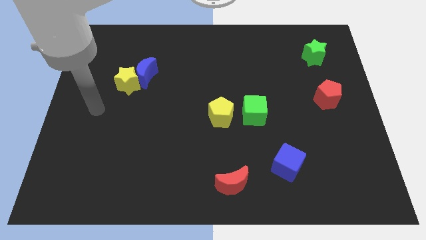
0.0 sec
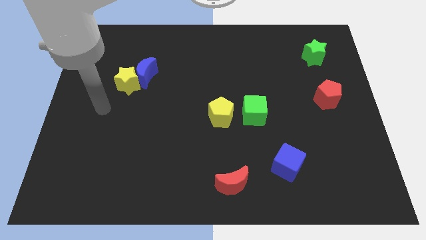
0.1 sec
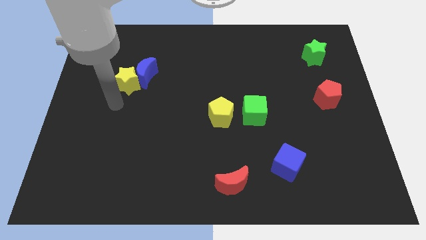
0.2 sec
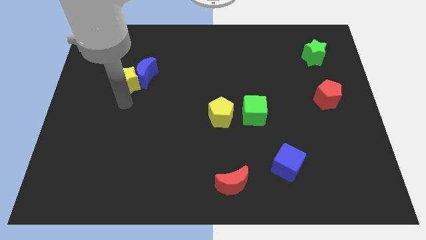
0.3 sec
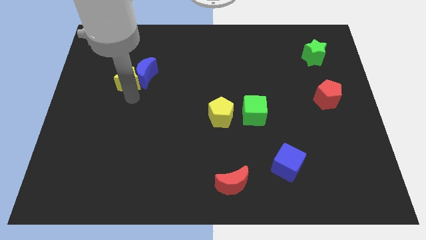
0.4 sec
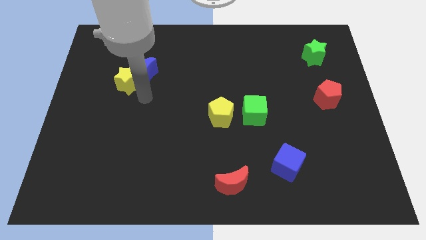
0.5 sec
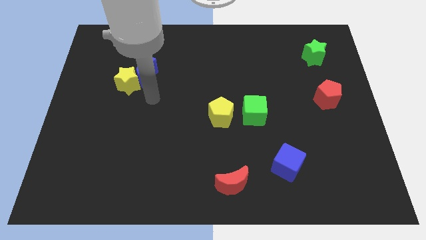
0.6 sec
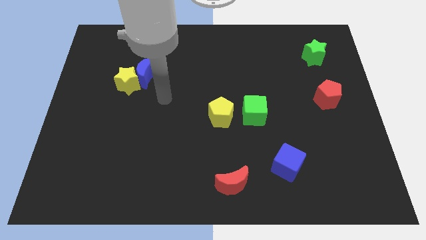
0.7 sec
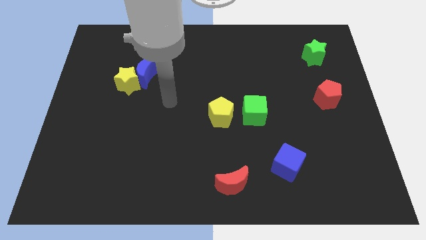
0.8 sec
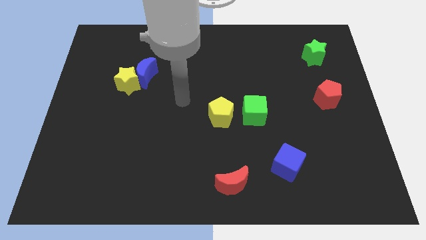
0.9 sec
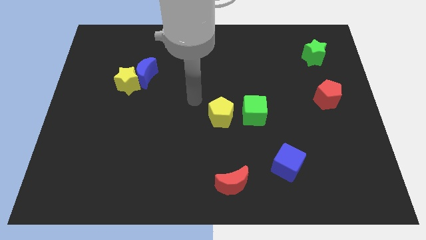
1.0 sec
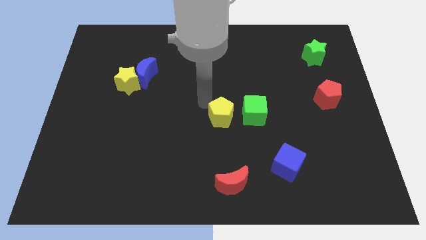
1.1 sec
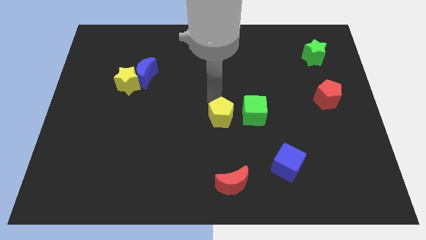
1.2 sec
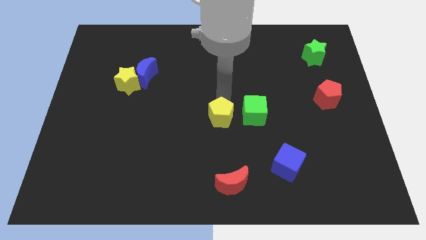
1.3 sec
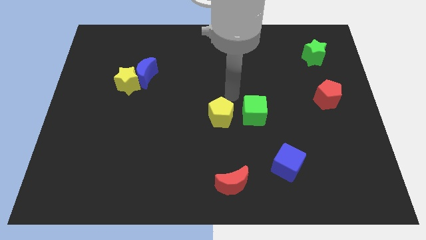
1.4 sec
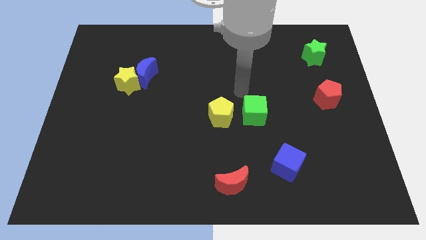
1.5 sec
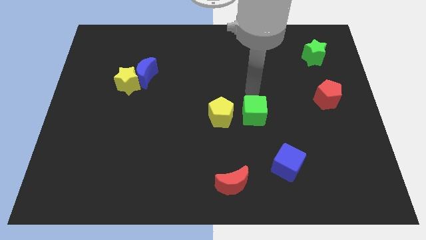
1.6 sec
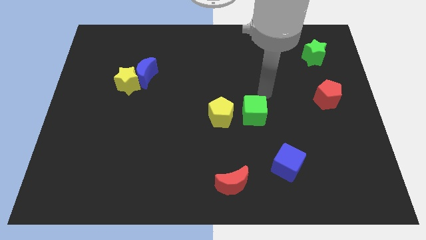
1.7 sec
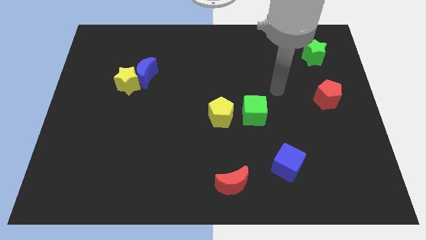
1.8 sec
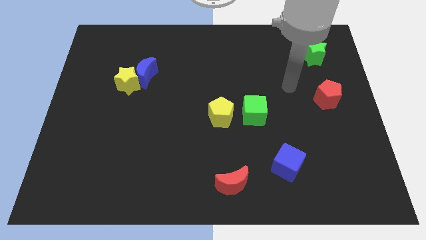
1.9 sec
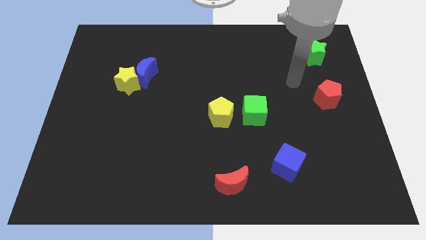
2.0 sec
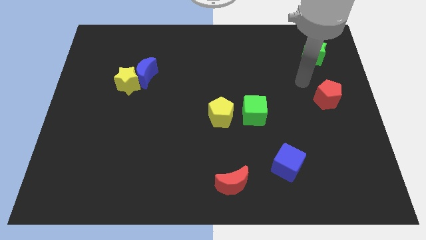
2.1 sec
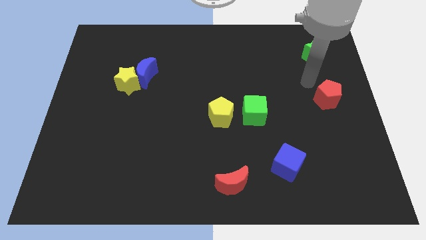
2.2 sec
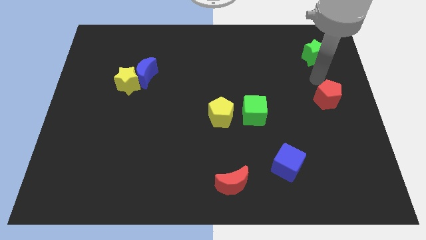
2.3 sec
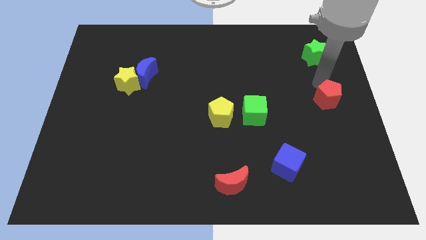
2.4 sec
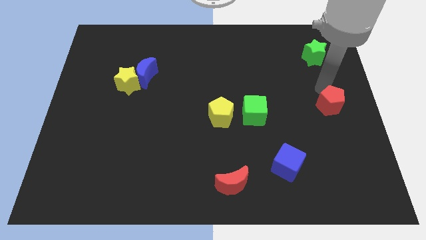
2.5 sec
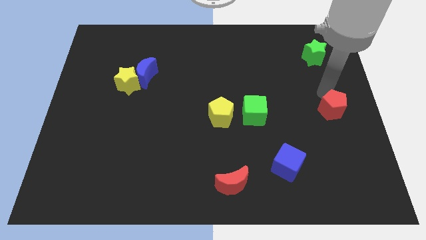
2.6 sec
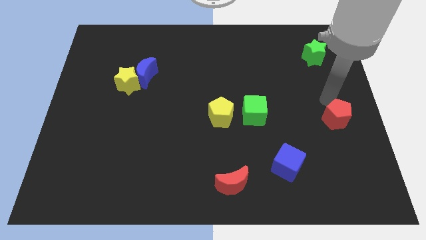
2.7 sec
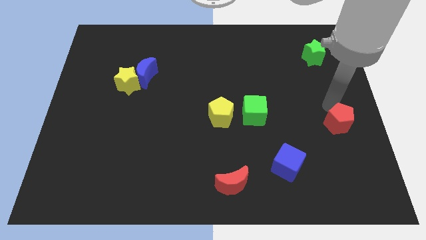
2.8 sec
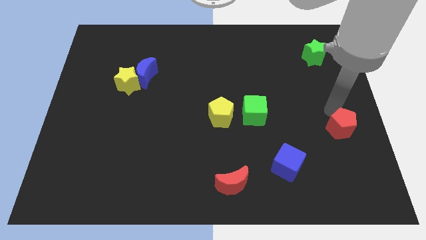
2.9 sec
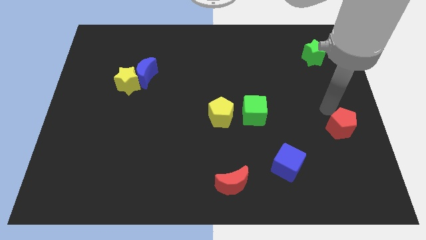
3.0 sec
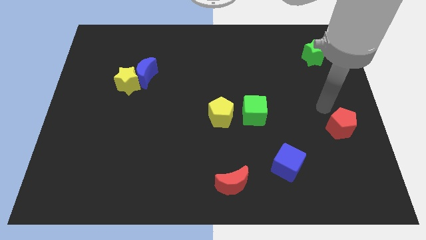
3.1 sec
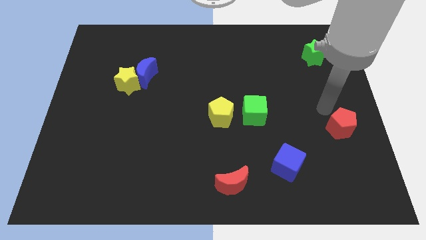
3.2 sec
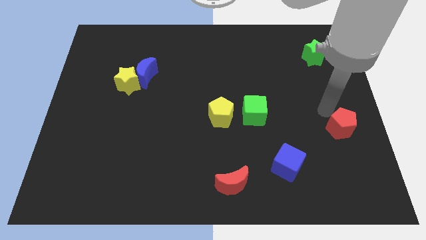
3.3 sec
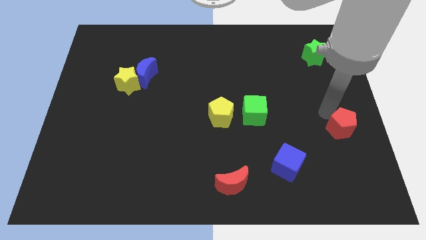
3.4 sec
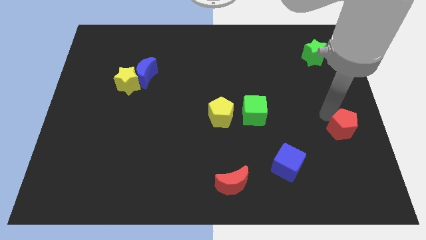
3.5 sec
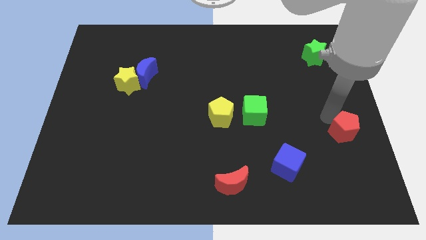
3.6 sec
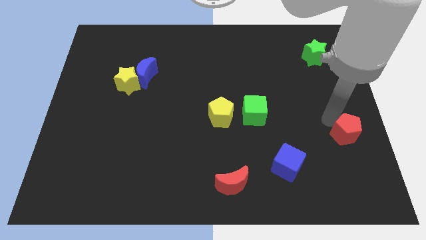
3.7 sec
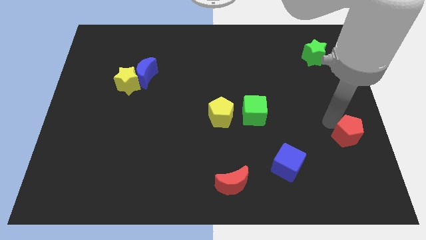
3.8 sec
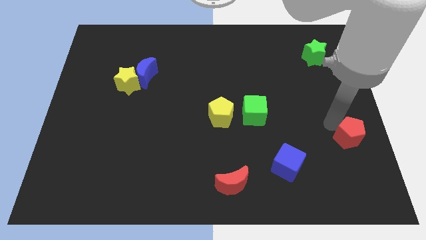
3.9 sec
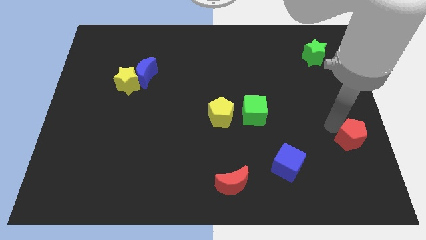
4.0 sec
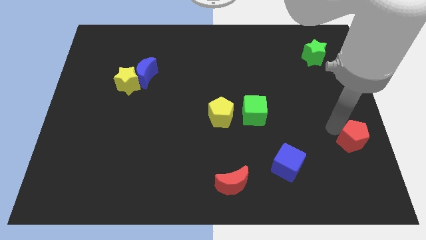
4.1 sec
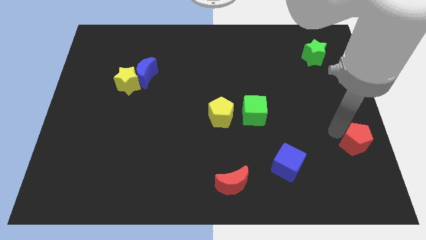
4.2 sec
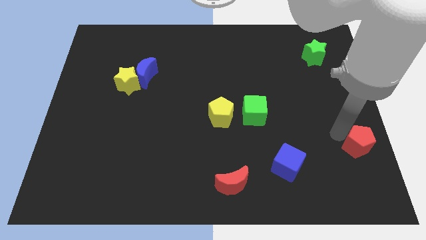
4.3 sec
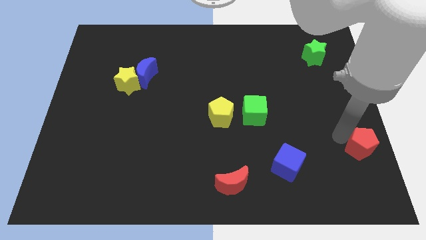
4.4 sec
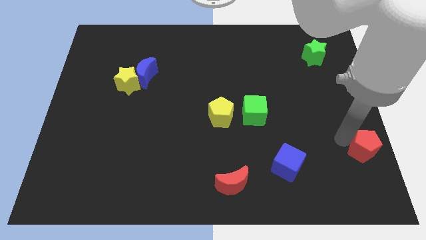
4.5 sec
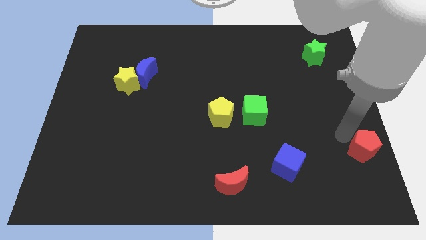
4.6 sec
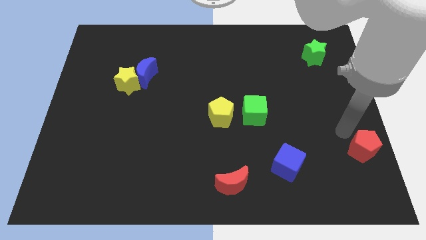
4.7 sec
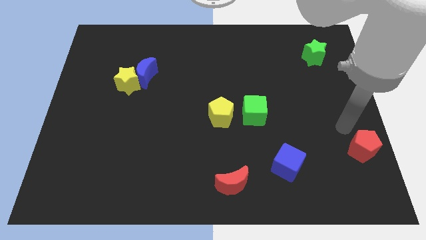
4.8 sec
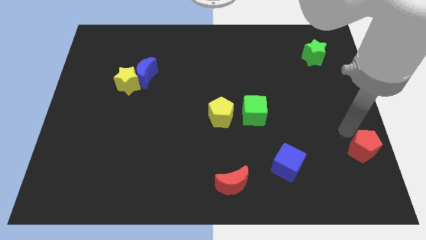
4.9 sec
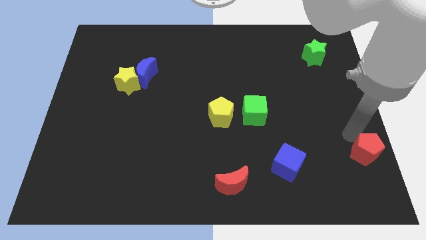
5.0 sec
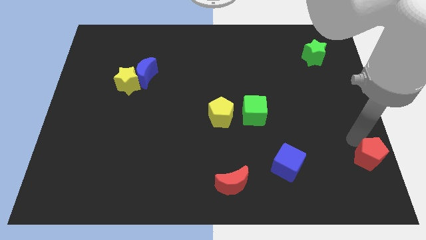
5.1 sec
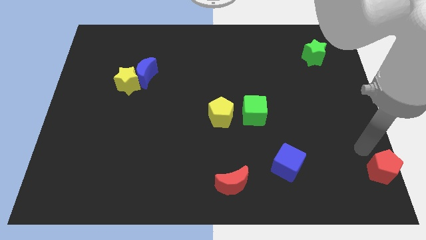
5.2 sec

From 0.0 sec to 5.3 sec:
put the red pentagon to the bottom right of the board

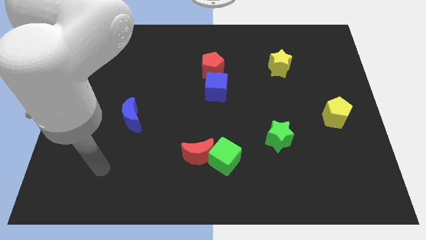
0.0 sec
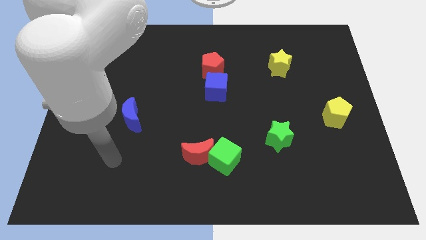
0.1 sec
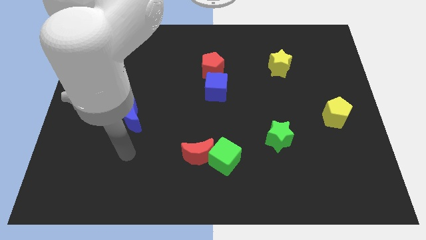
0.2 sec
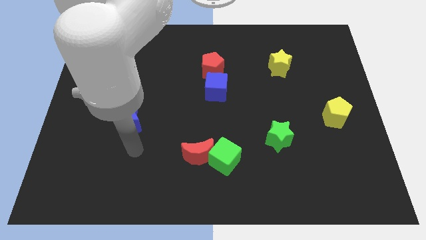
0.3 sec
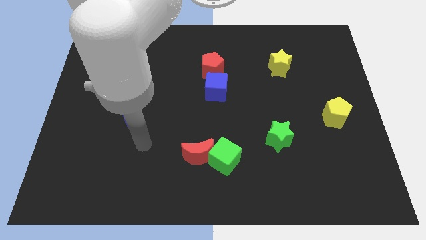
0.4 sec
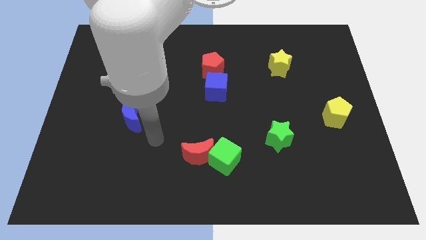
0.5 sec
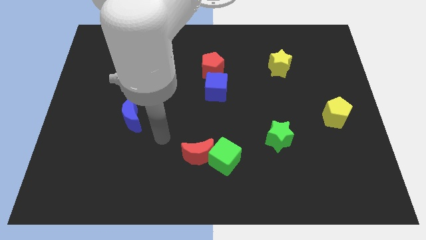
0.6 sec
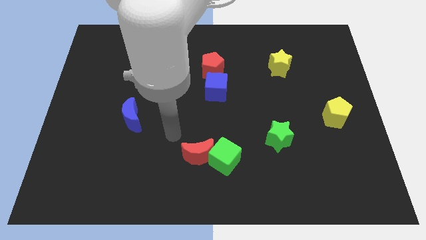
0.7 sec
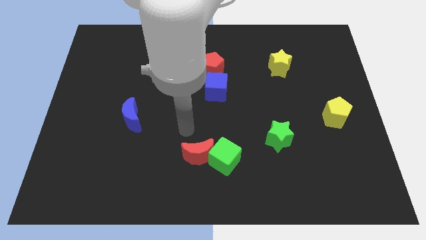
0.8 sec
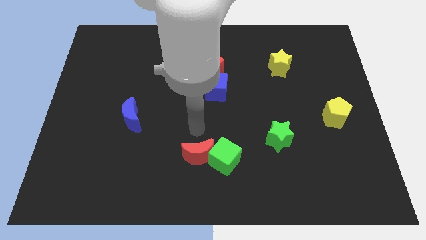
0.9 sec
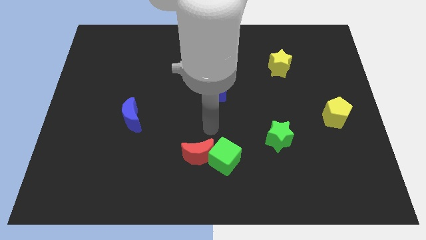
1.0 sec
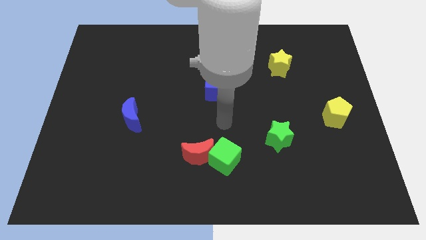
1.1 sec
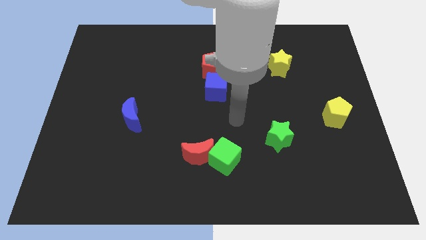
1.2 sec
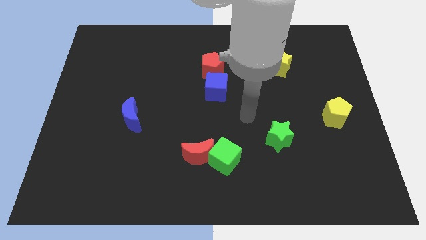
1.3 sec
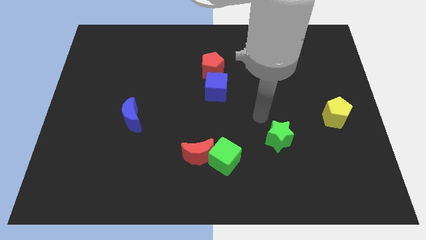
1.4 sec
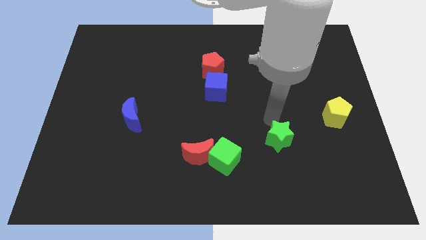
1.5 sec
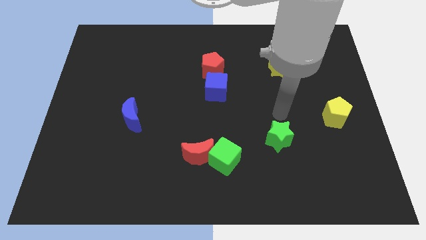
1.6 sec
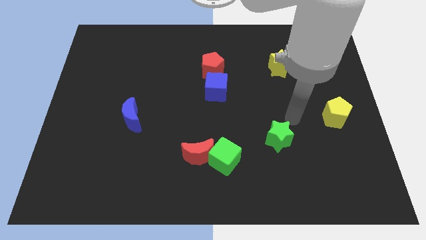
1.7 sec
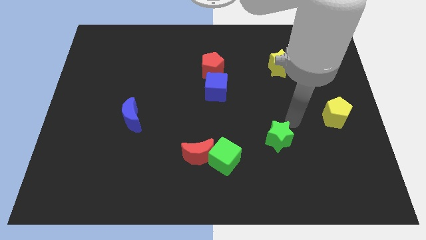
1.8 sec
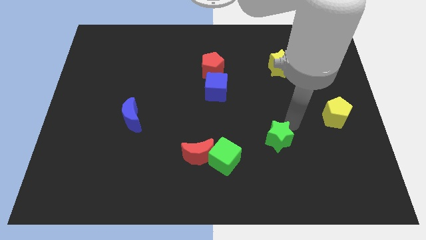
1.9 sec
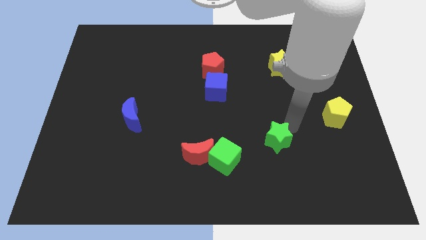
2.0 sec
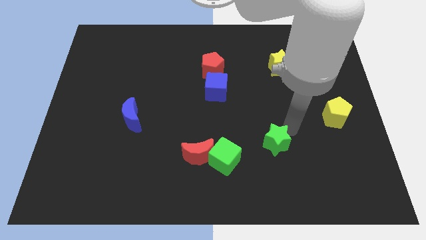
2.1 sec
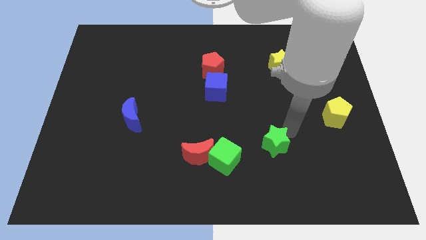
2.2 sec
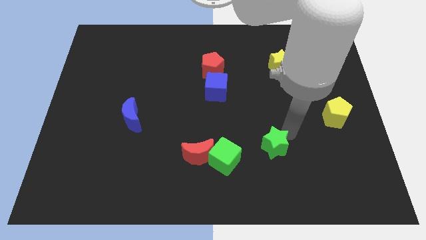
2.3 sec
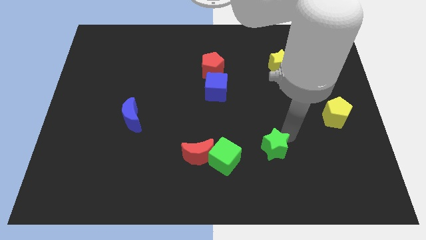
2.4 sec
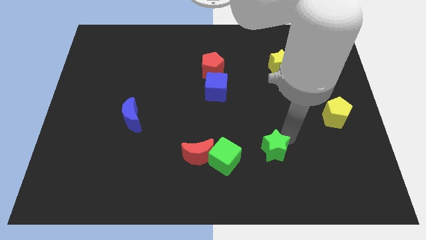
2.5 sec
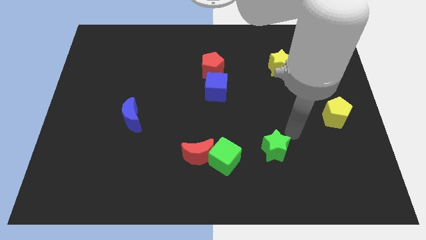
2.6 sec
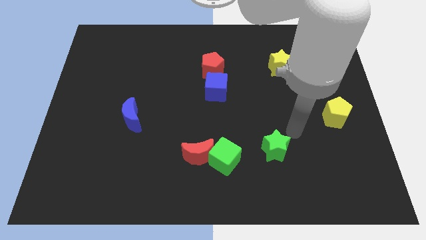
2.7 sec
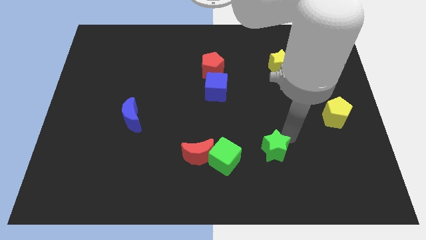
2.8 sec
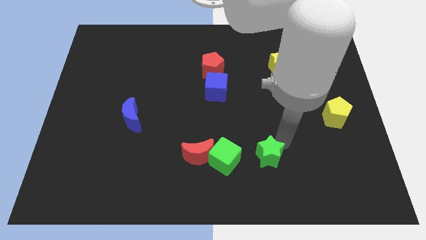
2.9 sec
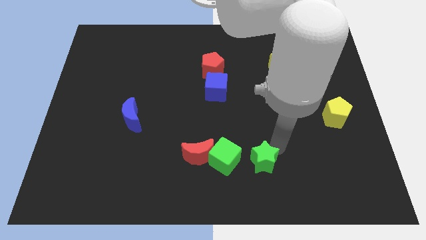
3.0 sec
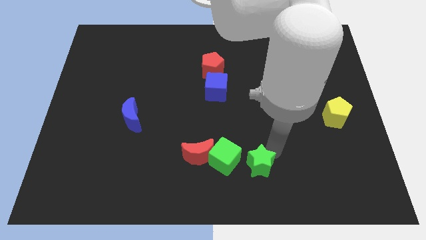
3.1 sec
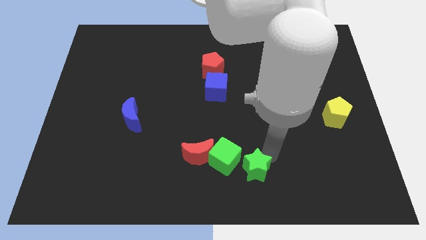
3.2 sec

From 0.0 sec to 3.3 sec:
move the green star to the bottom
